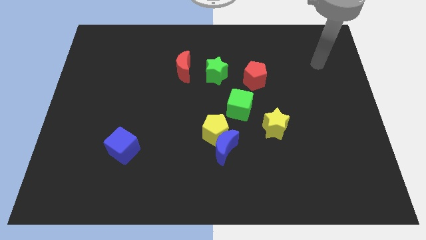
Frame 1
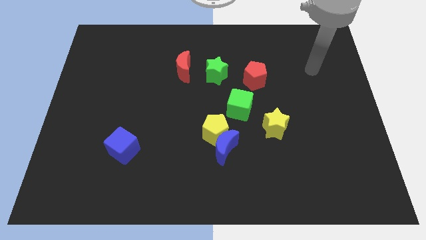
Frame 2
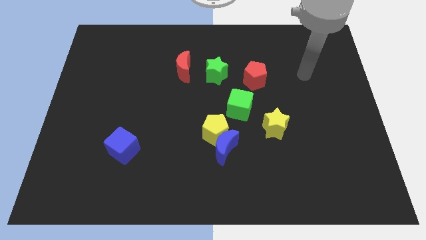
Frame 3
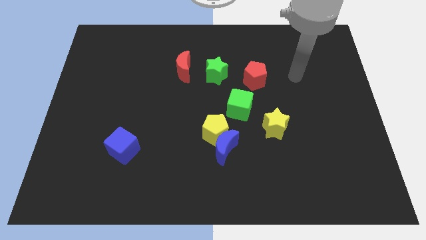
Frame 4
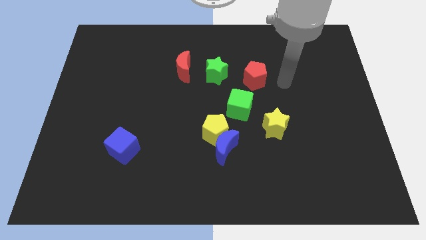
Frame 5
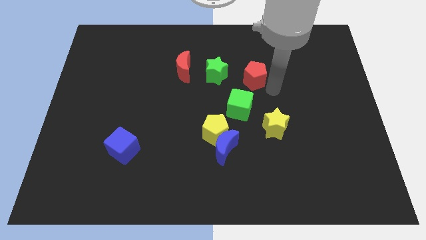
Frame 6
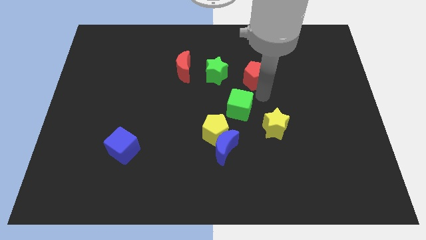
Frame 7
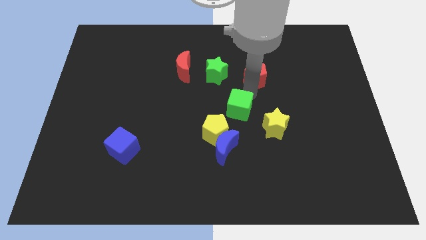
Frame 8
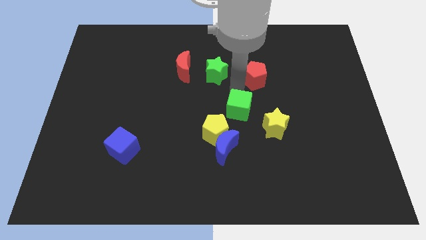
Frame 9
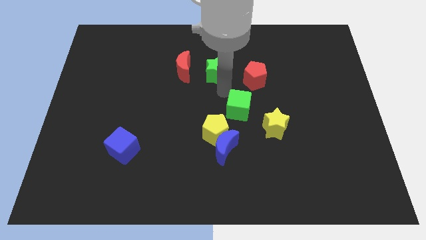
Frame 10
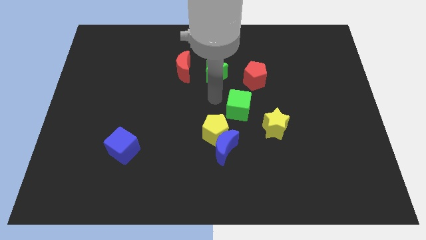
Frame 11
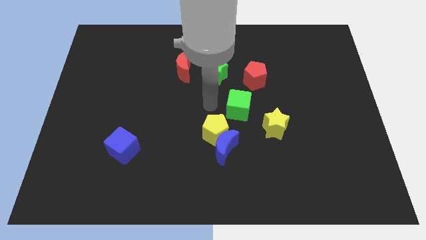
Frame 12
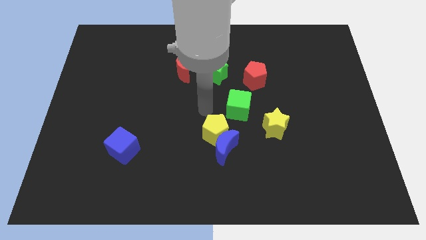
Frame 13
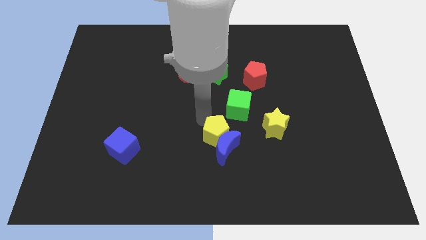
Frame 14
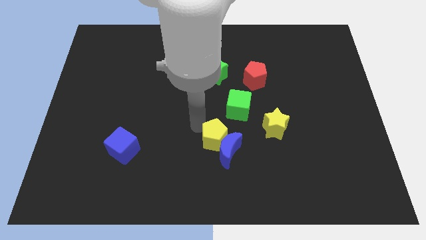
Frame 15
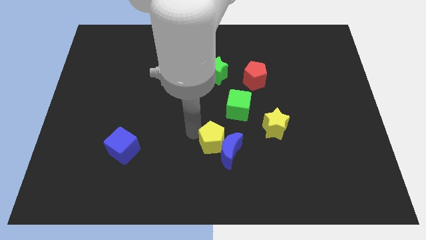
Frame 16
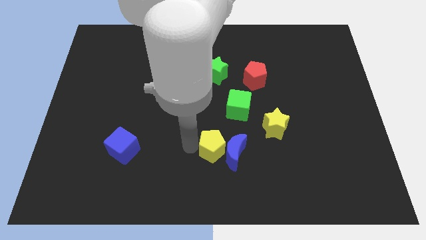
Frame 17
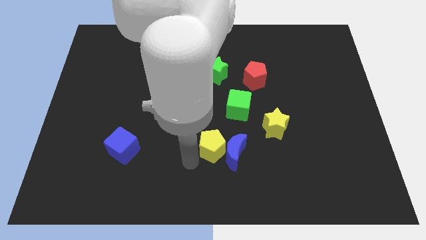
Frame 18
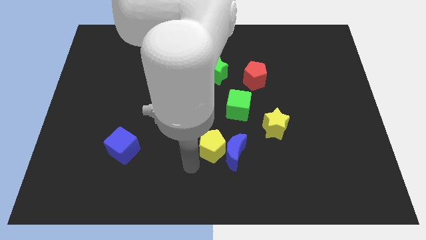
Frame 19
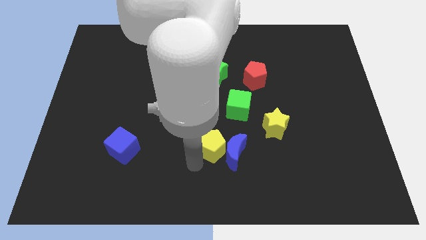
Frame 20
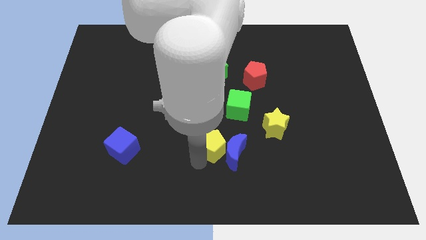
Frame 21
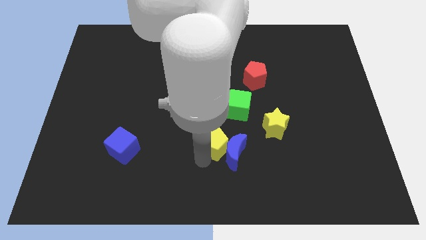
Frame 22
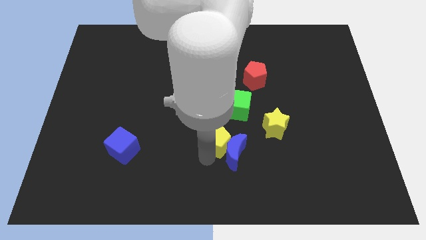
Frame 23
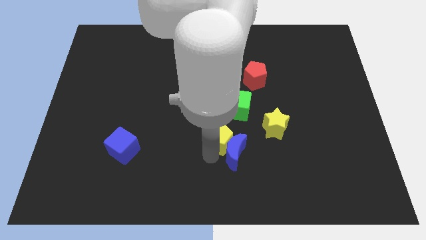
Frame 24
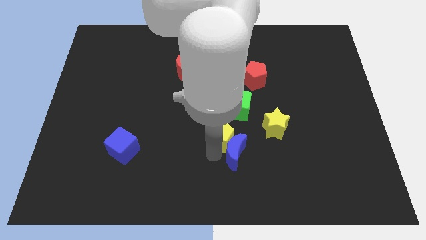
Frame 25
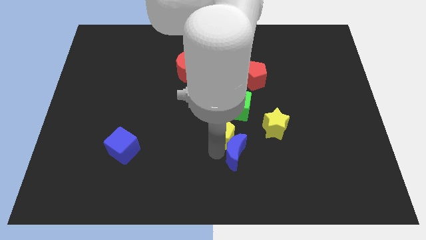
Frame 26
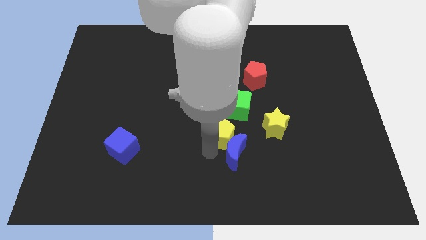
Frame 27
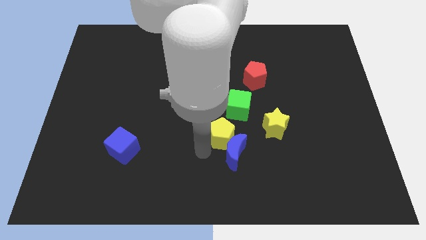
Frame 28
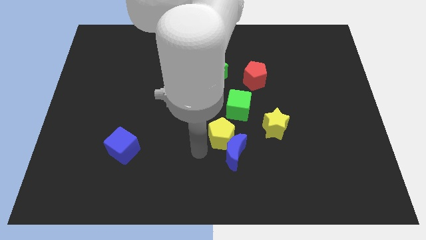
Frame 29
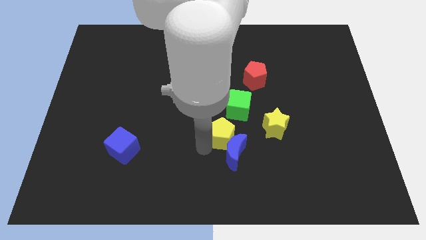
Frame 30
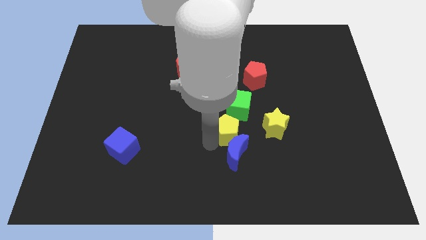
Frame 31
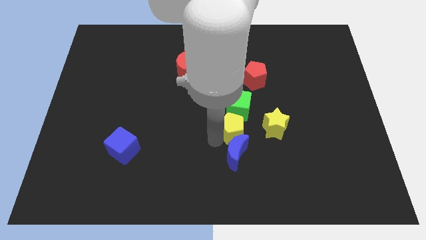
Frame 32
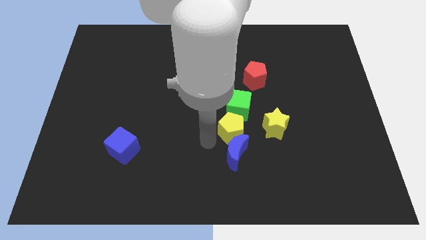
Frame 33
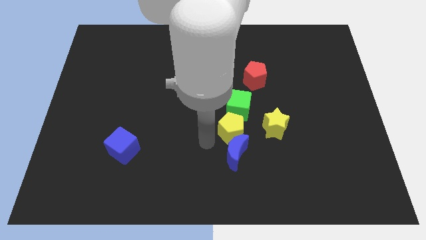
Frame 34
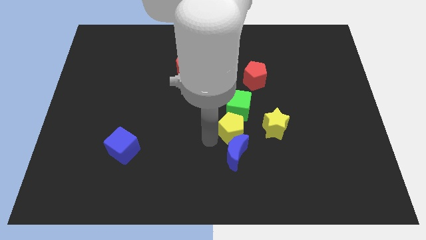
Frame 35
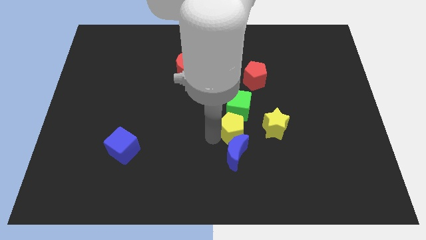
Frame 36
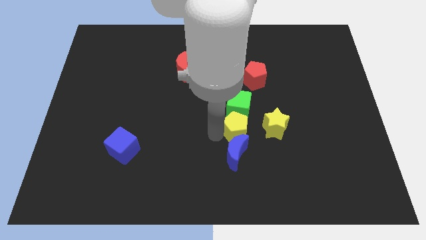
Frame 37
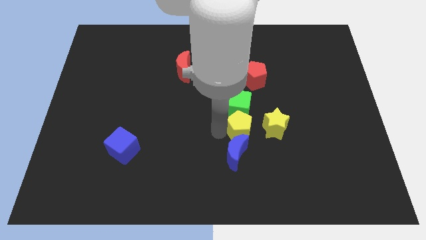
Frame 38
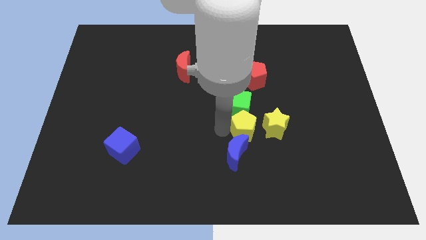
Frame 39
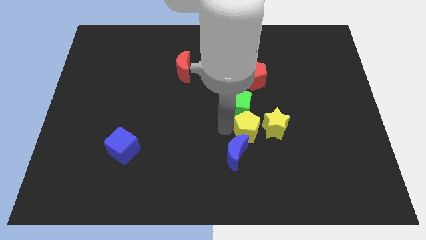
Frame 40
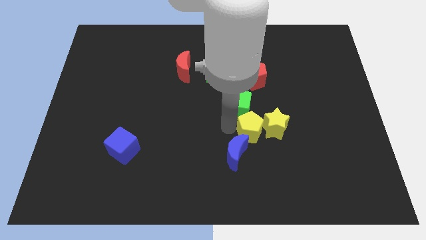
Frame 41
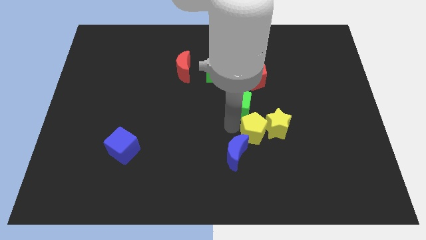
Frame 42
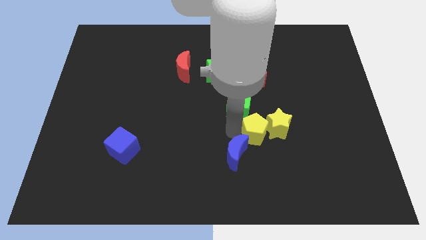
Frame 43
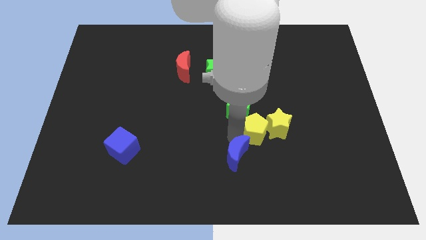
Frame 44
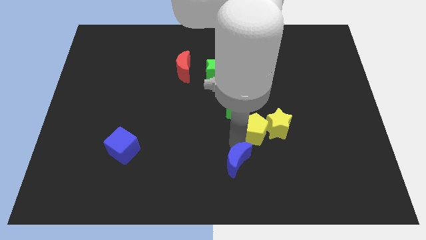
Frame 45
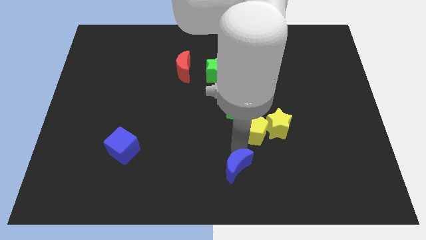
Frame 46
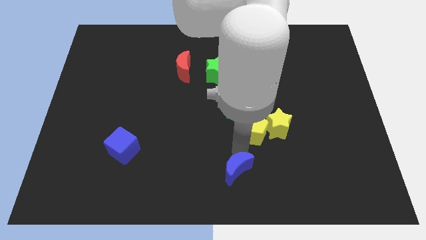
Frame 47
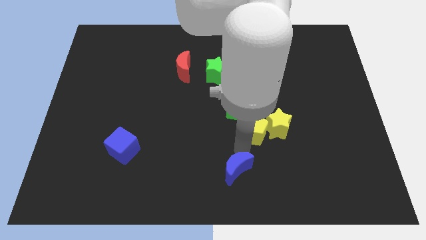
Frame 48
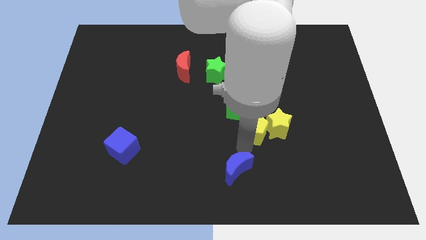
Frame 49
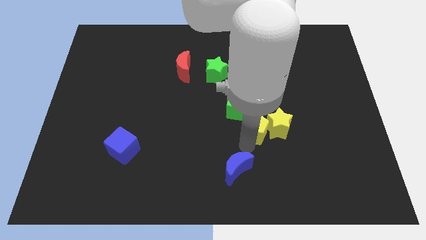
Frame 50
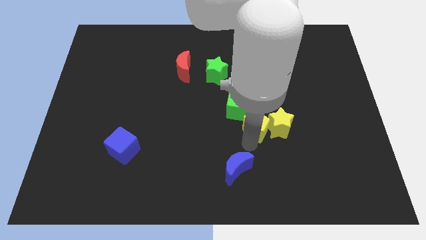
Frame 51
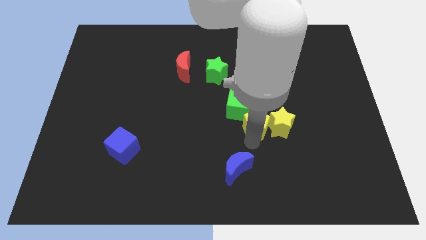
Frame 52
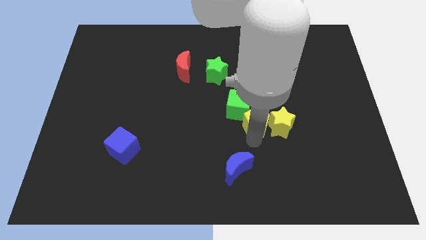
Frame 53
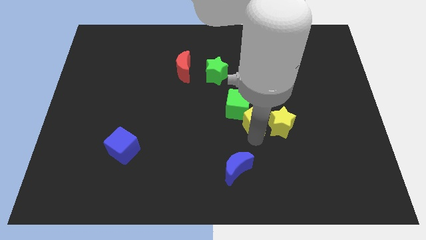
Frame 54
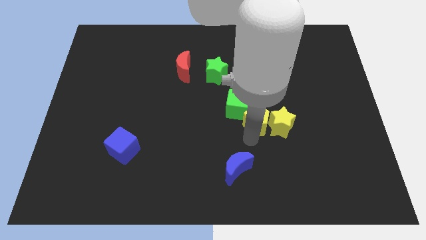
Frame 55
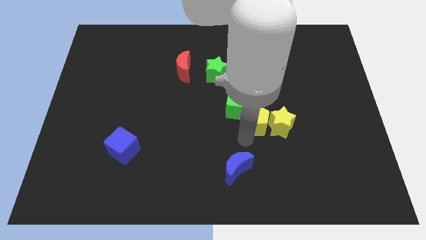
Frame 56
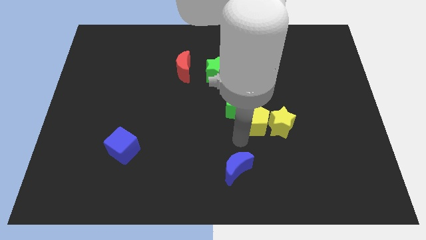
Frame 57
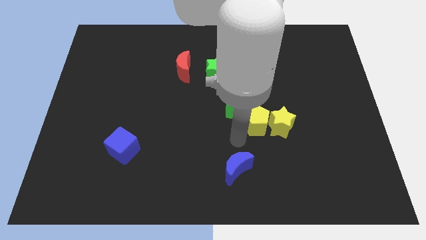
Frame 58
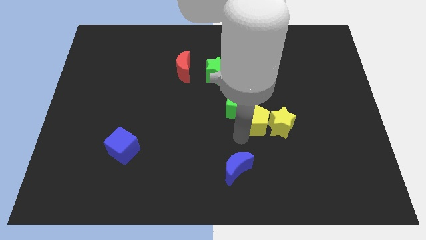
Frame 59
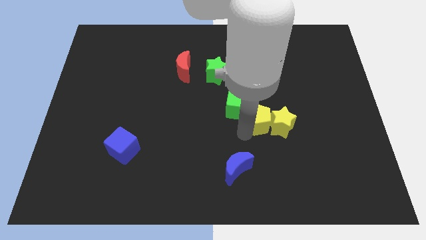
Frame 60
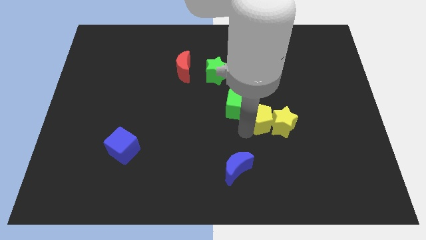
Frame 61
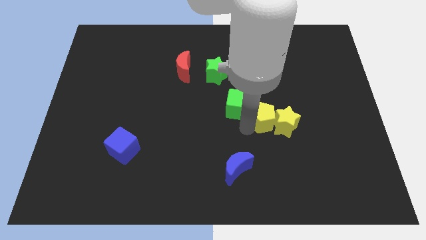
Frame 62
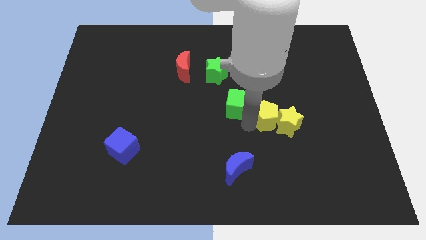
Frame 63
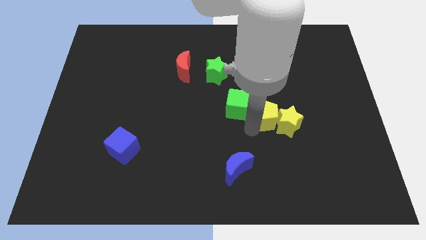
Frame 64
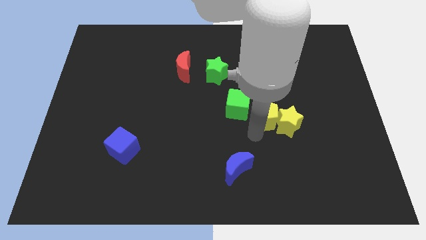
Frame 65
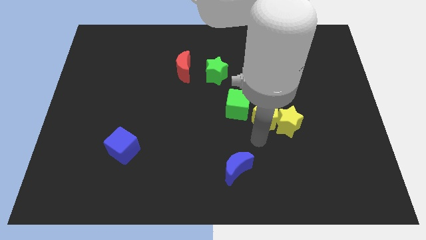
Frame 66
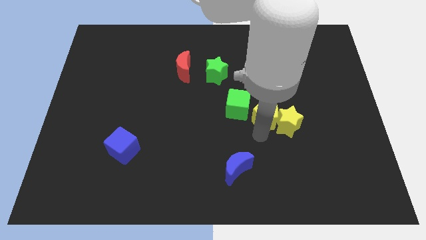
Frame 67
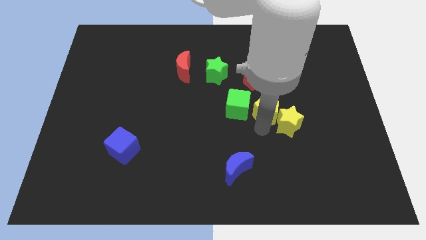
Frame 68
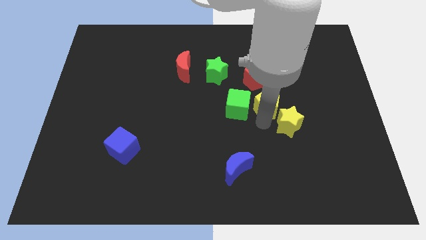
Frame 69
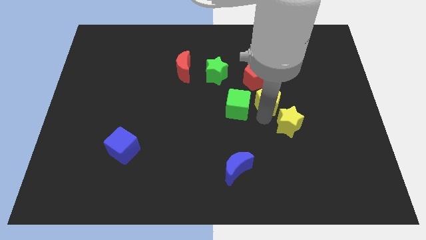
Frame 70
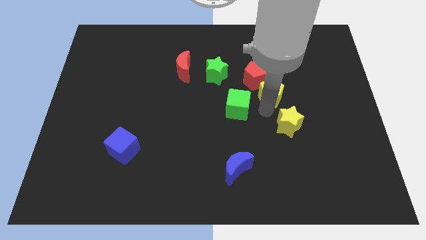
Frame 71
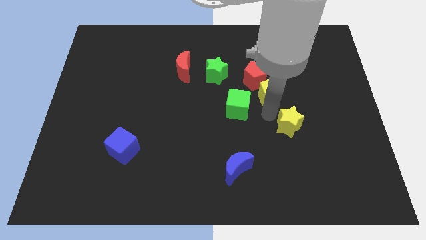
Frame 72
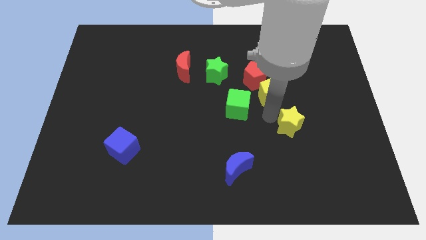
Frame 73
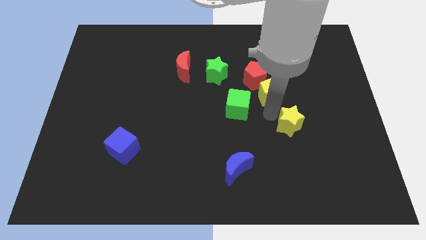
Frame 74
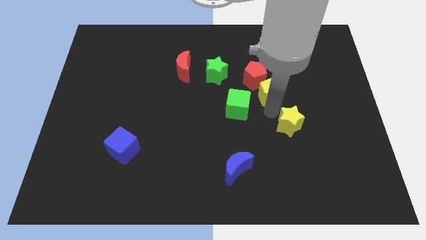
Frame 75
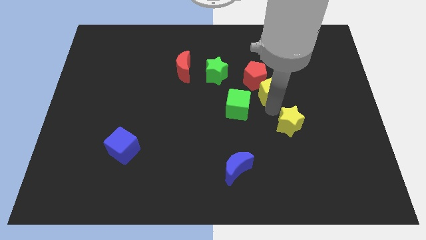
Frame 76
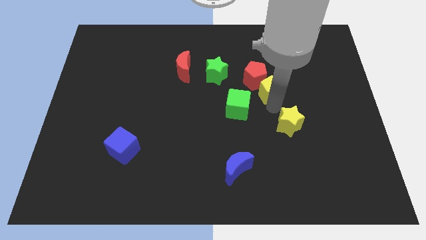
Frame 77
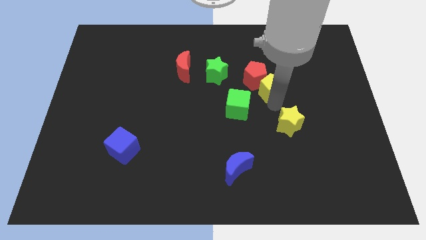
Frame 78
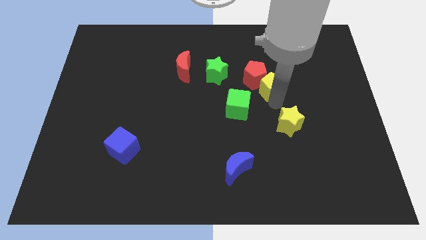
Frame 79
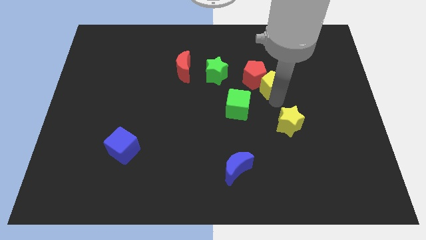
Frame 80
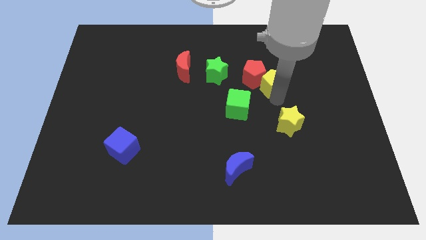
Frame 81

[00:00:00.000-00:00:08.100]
push the yellow pentagon diagonally up and to the right

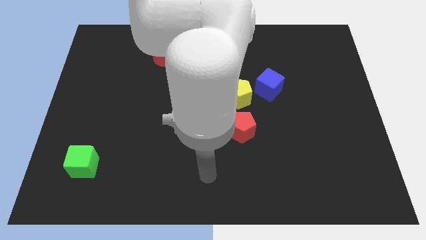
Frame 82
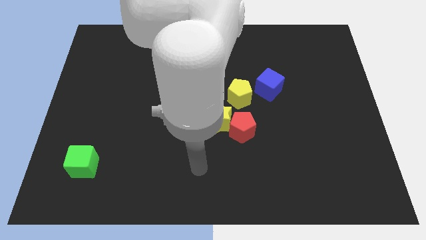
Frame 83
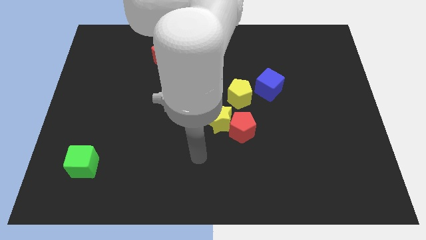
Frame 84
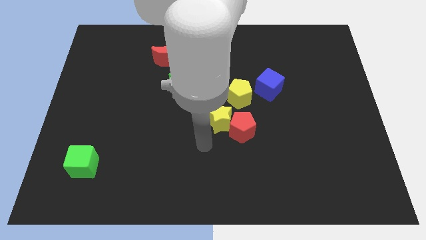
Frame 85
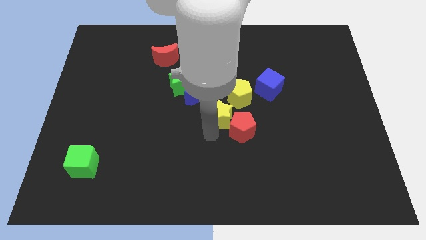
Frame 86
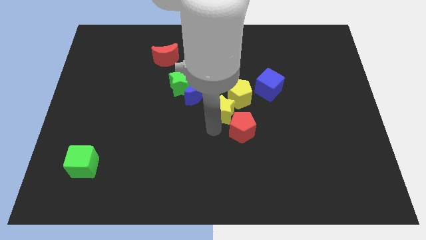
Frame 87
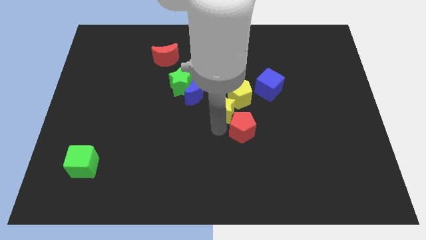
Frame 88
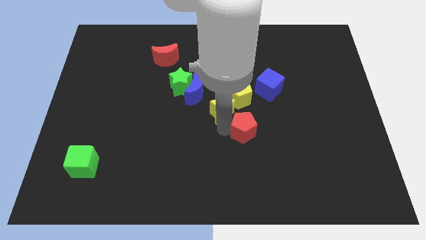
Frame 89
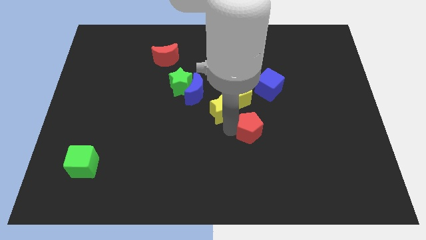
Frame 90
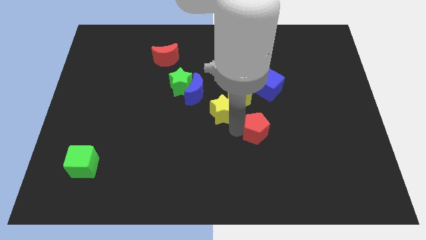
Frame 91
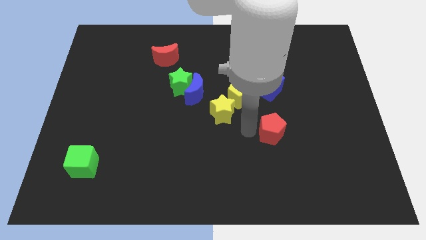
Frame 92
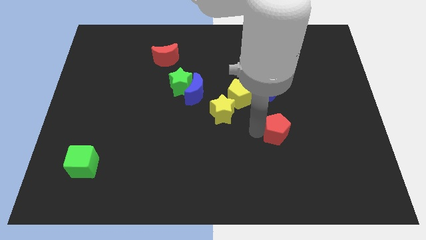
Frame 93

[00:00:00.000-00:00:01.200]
push the red pentagon to the right somewhat
